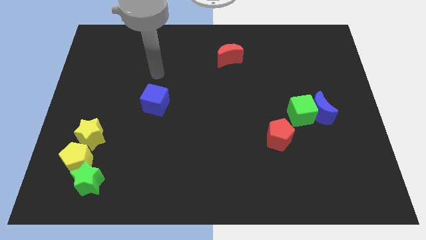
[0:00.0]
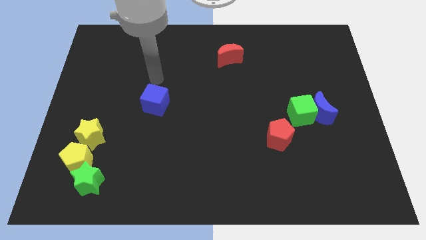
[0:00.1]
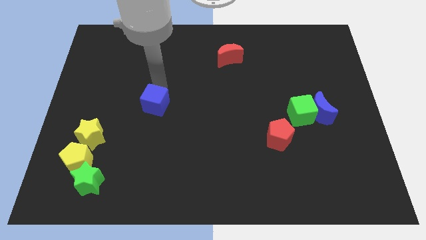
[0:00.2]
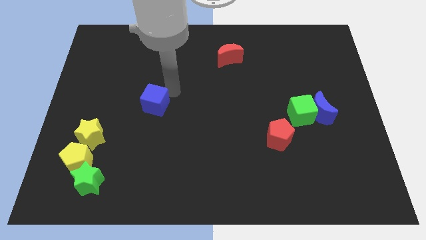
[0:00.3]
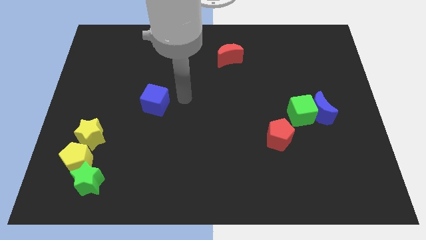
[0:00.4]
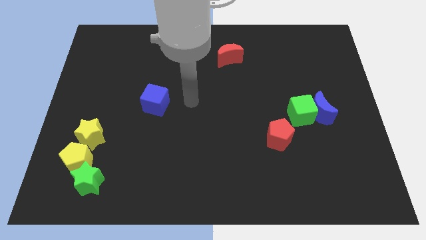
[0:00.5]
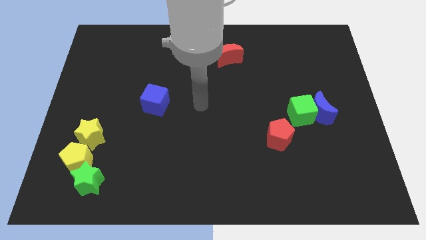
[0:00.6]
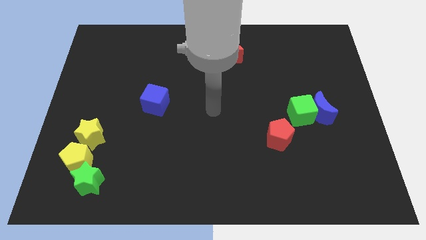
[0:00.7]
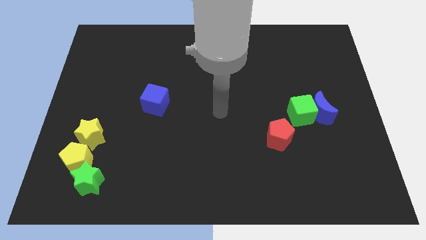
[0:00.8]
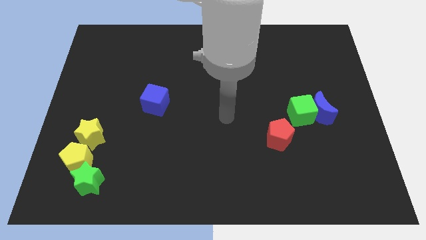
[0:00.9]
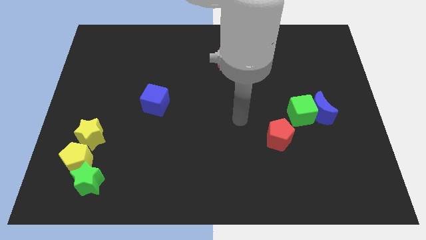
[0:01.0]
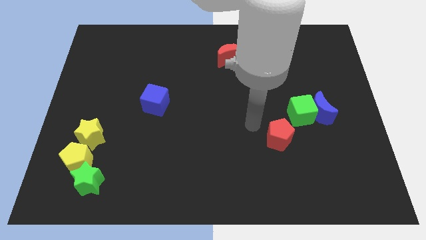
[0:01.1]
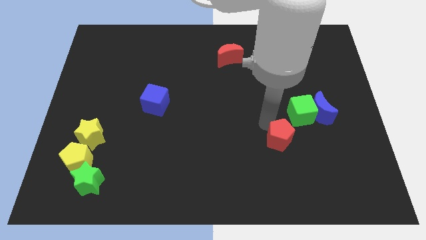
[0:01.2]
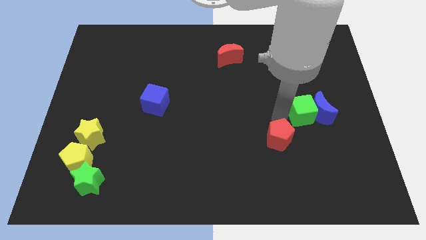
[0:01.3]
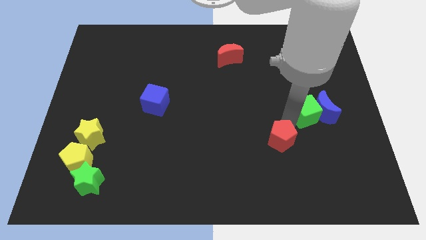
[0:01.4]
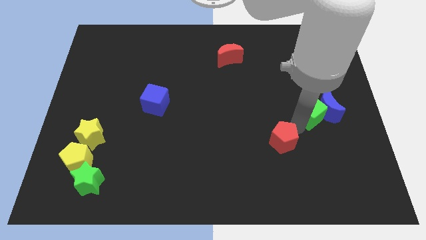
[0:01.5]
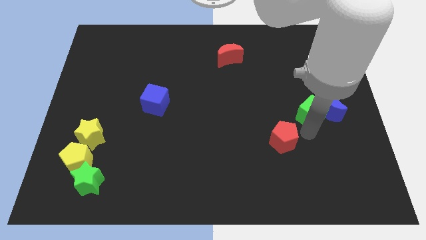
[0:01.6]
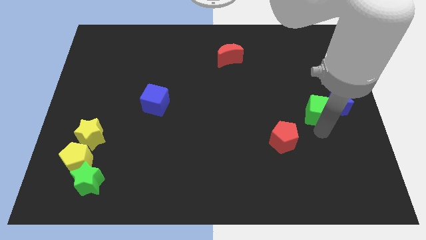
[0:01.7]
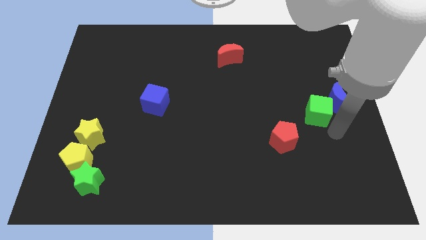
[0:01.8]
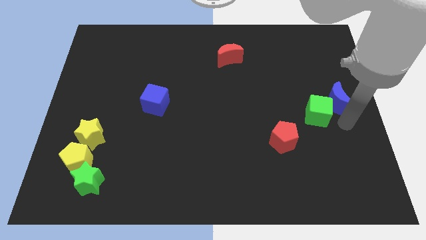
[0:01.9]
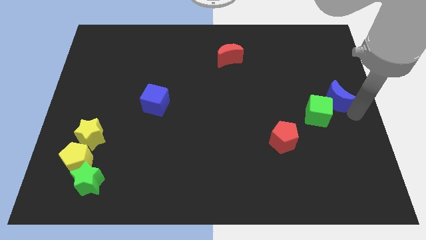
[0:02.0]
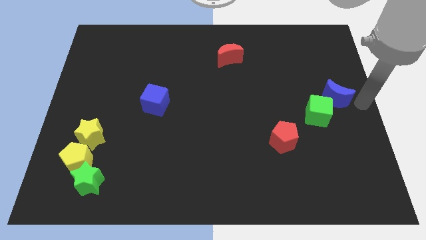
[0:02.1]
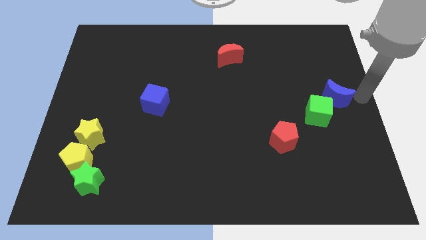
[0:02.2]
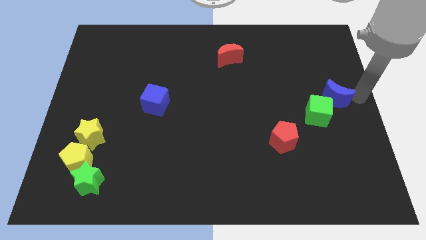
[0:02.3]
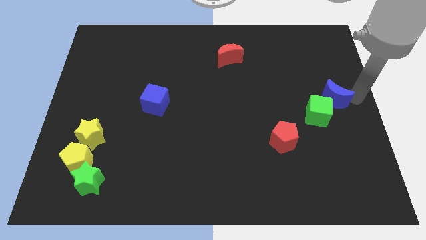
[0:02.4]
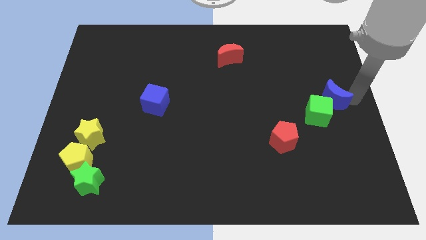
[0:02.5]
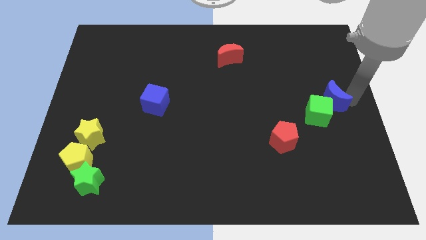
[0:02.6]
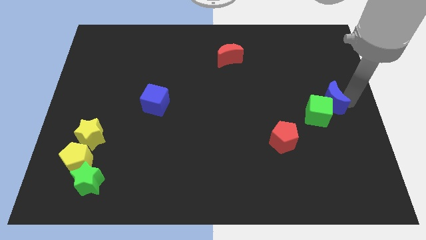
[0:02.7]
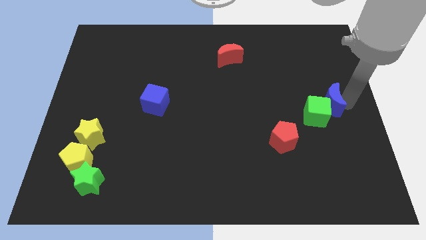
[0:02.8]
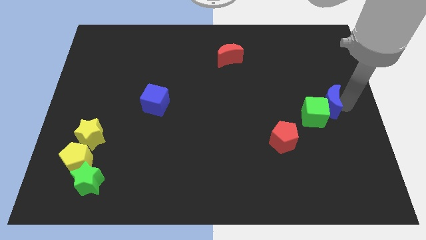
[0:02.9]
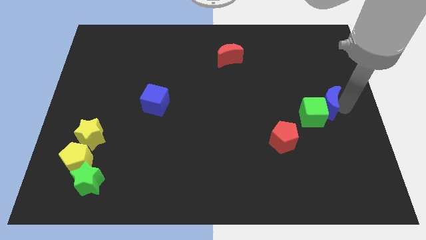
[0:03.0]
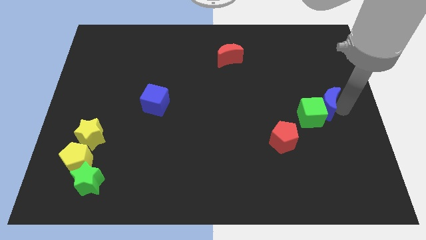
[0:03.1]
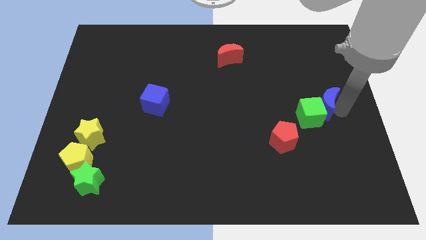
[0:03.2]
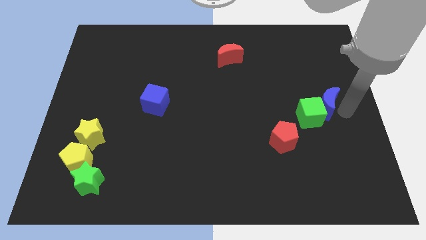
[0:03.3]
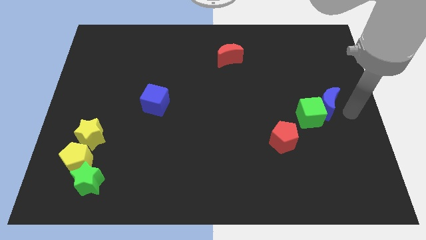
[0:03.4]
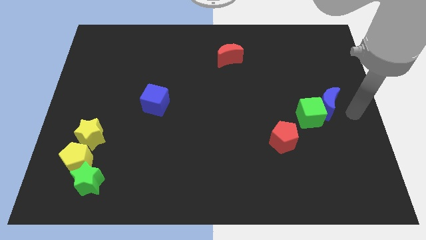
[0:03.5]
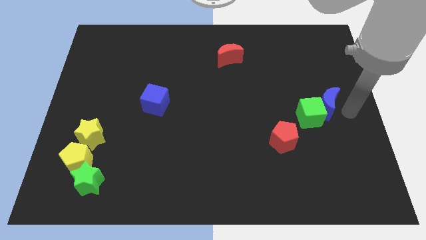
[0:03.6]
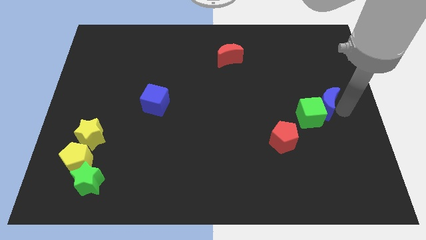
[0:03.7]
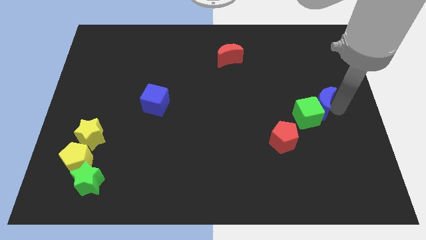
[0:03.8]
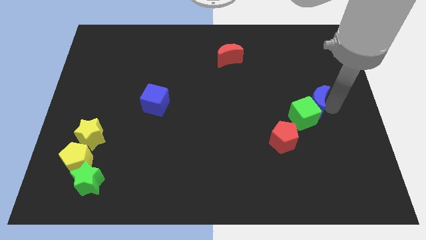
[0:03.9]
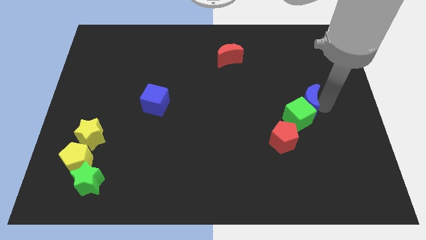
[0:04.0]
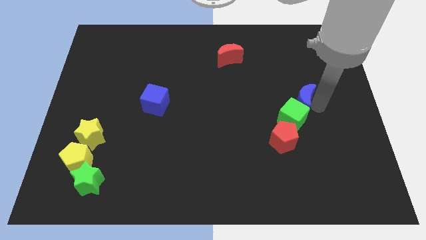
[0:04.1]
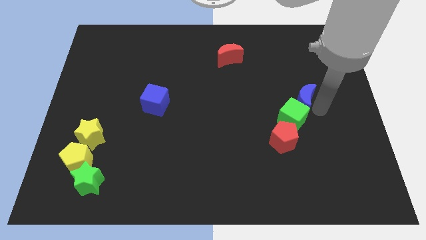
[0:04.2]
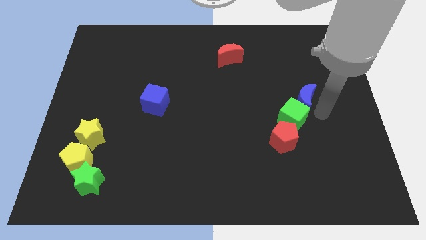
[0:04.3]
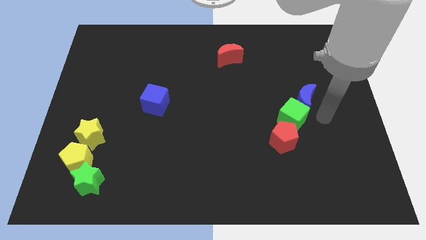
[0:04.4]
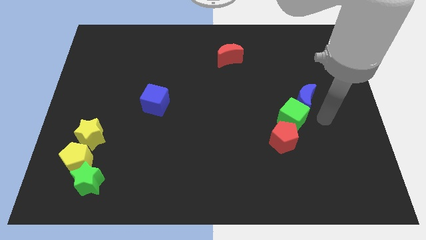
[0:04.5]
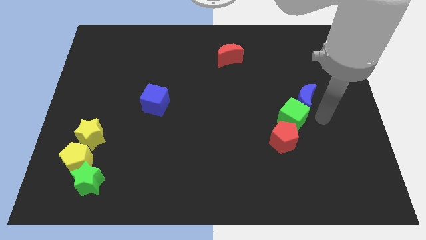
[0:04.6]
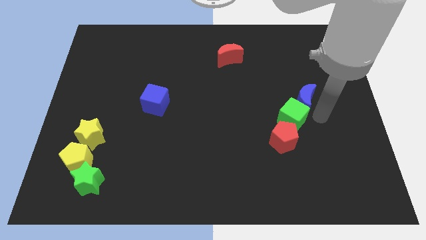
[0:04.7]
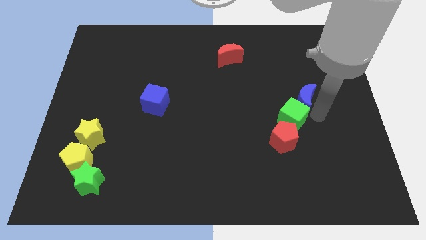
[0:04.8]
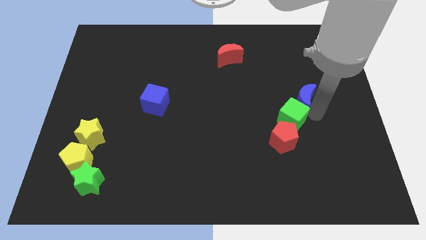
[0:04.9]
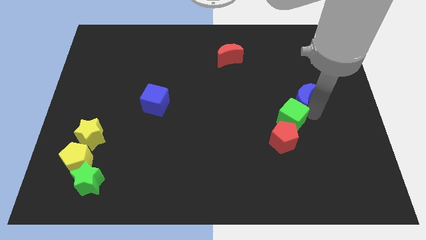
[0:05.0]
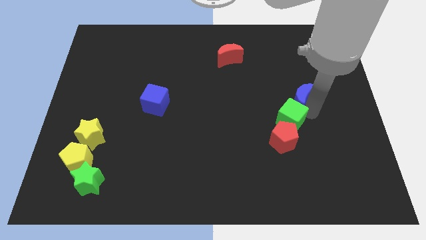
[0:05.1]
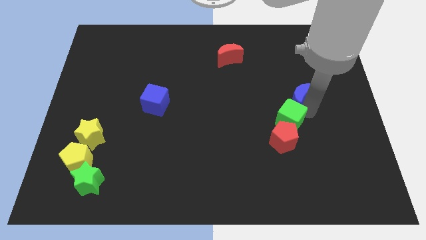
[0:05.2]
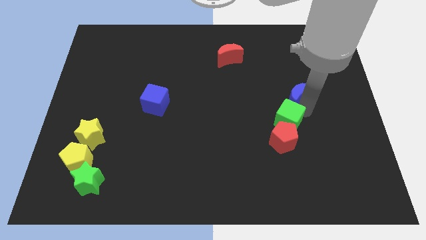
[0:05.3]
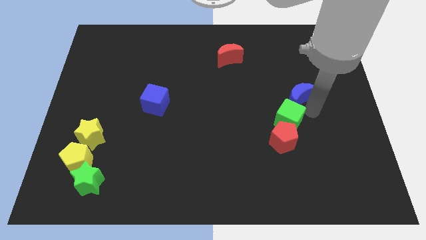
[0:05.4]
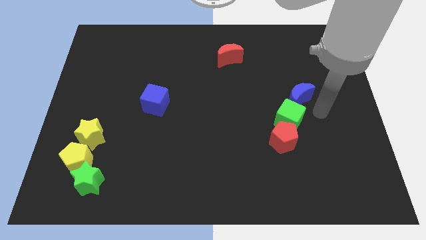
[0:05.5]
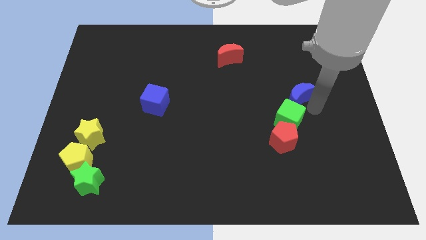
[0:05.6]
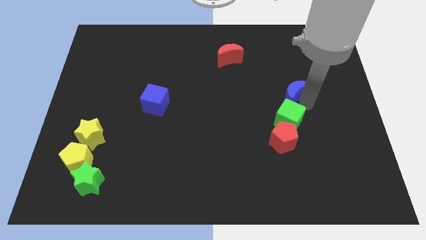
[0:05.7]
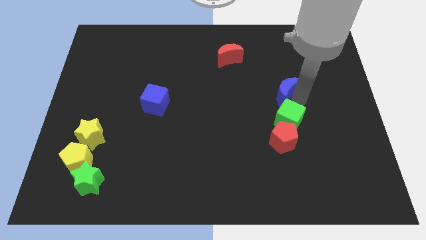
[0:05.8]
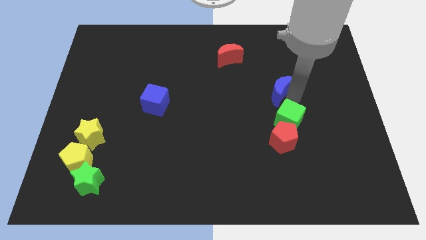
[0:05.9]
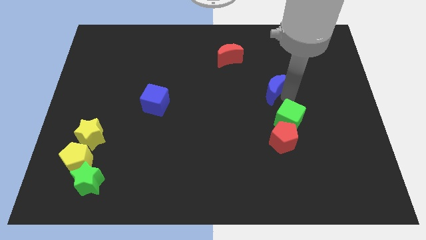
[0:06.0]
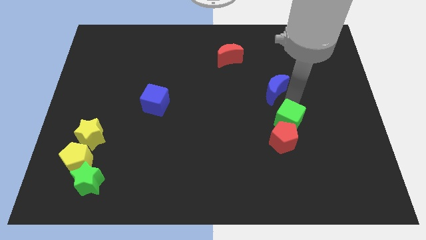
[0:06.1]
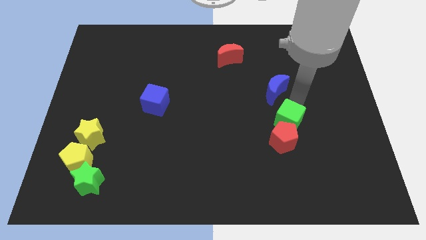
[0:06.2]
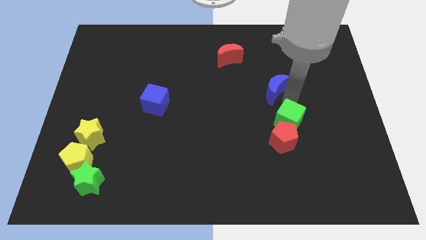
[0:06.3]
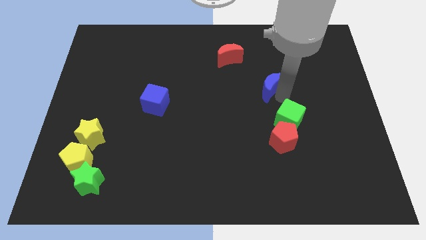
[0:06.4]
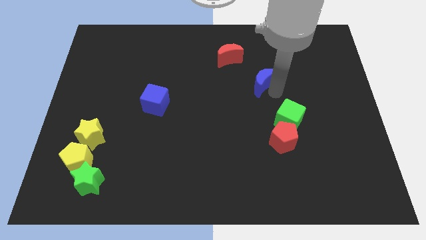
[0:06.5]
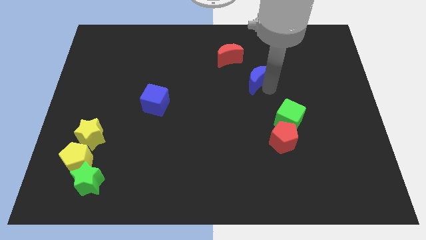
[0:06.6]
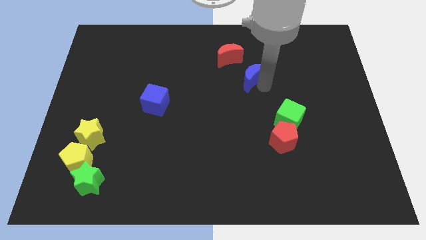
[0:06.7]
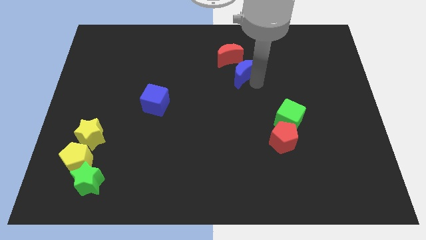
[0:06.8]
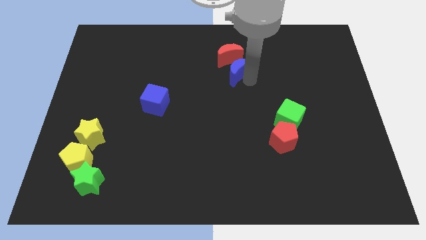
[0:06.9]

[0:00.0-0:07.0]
push the blue moon to the red moon

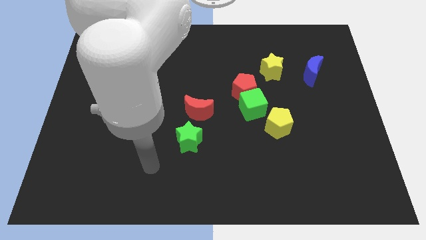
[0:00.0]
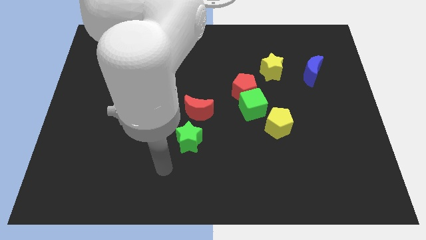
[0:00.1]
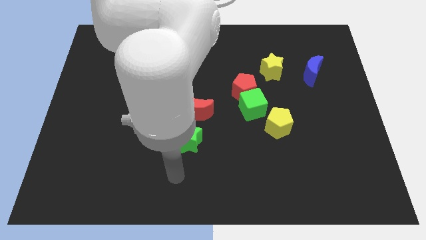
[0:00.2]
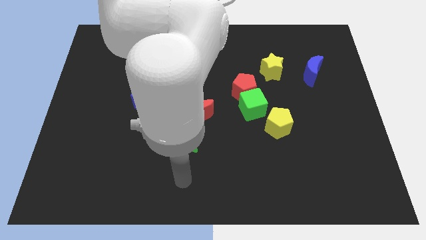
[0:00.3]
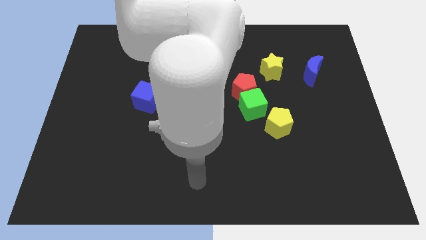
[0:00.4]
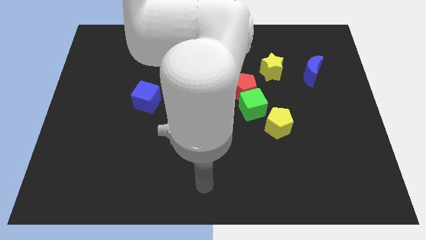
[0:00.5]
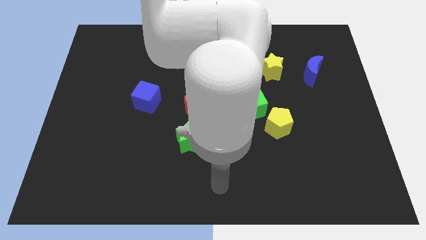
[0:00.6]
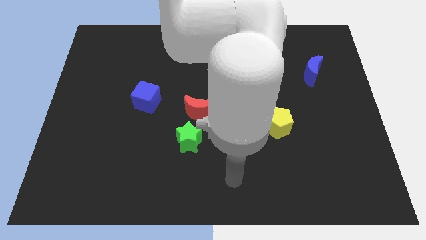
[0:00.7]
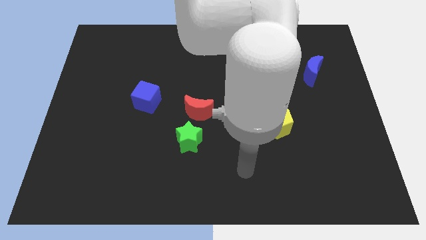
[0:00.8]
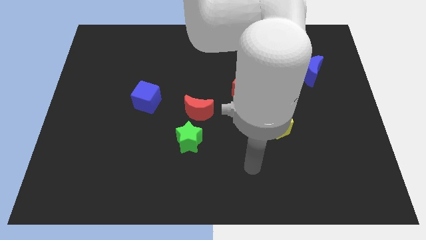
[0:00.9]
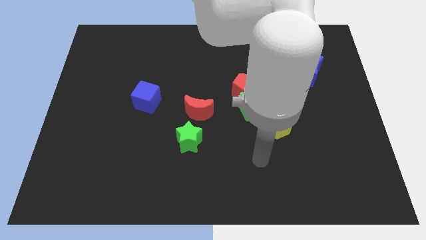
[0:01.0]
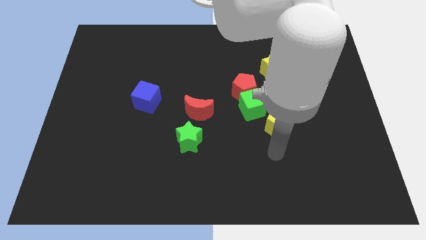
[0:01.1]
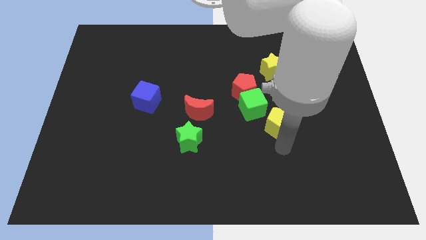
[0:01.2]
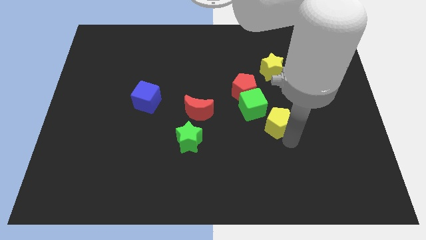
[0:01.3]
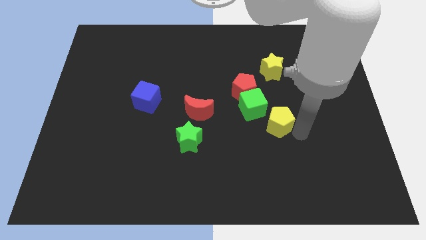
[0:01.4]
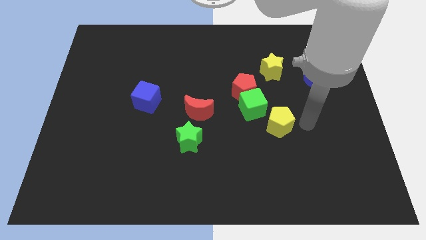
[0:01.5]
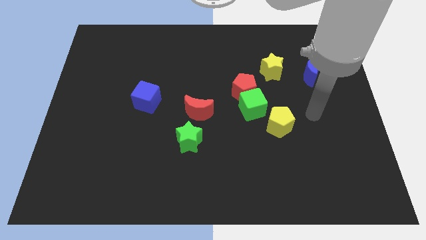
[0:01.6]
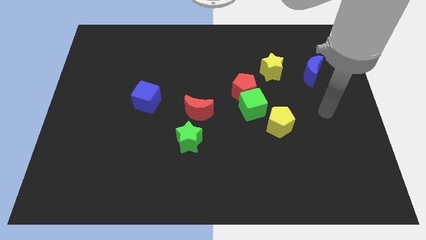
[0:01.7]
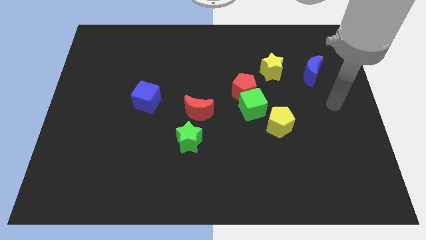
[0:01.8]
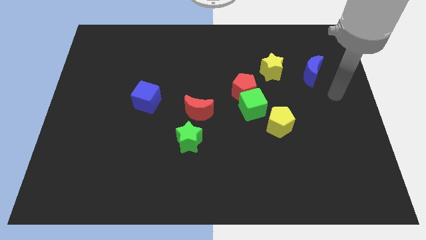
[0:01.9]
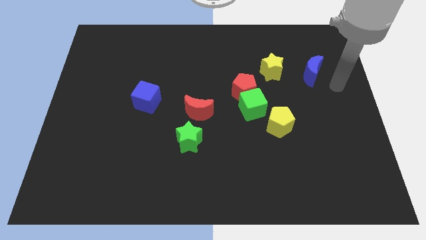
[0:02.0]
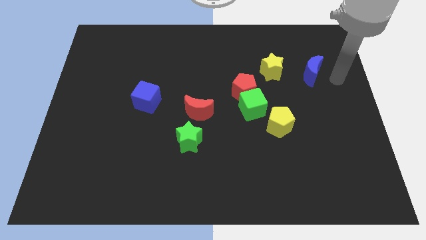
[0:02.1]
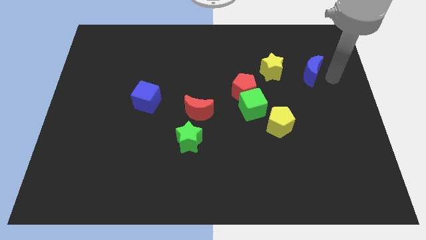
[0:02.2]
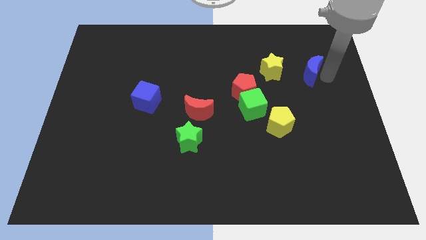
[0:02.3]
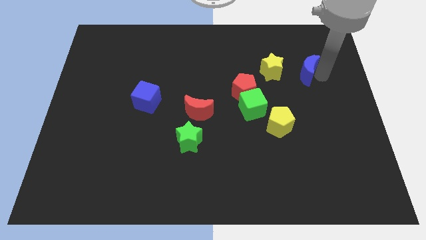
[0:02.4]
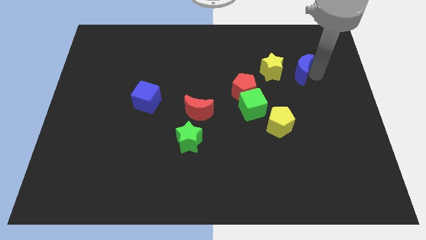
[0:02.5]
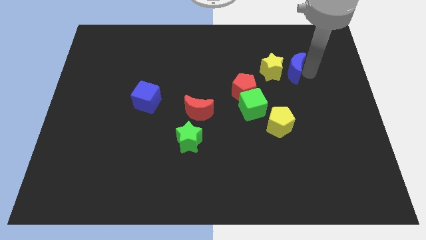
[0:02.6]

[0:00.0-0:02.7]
move the blue moon to the yellow star
